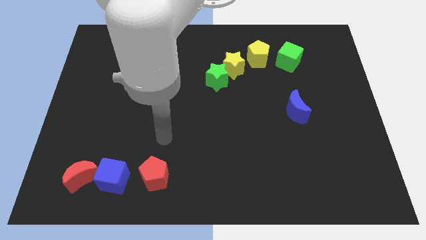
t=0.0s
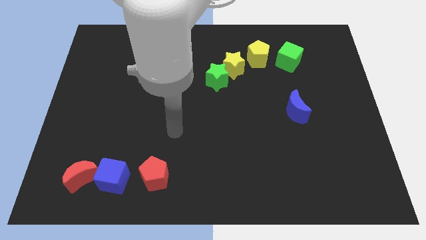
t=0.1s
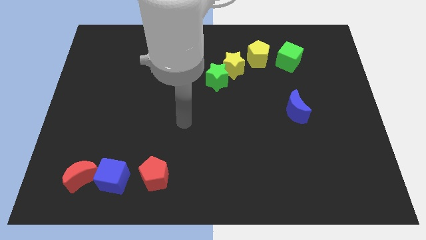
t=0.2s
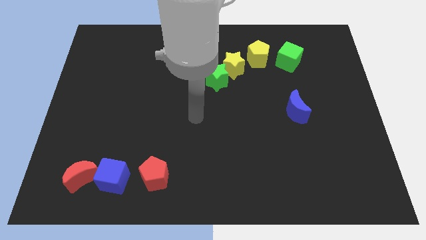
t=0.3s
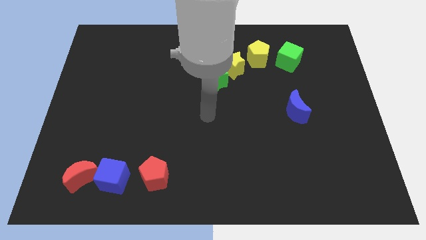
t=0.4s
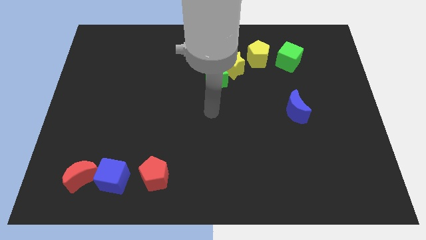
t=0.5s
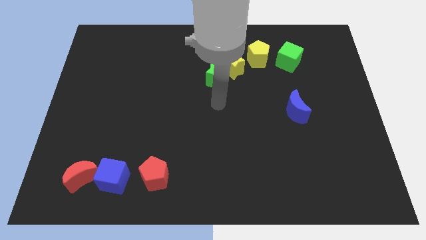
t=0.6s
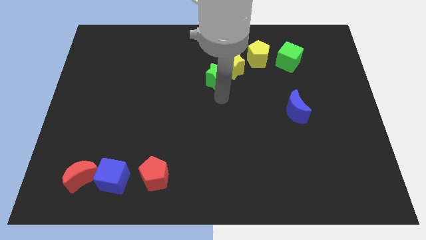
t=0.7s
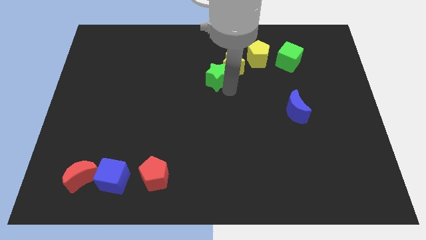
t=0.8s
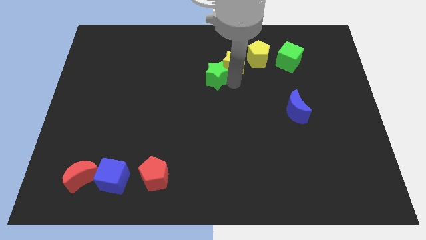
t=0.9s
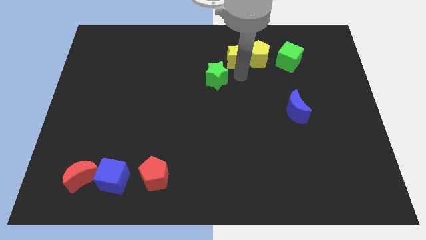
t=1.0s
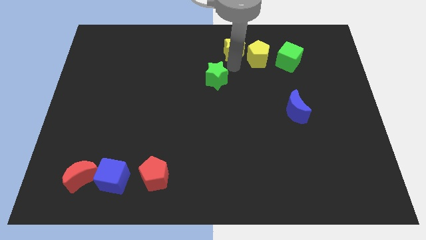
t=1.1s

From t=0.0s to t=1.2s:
move the green star away from the yellow star

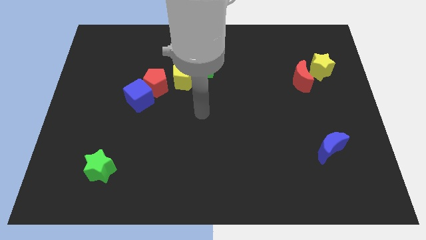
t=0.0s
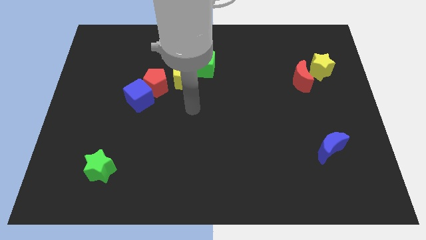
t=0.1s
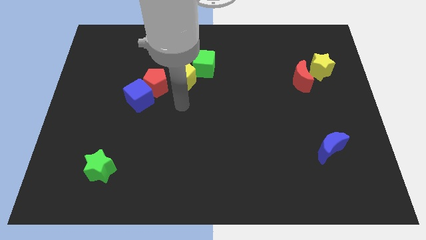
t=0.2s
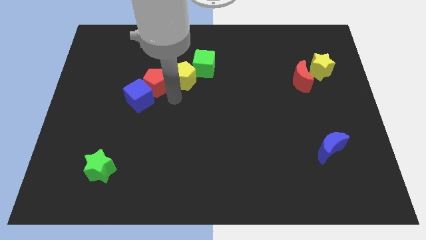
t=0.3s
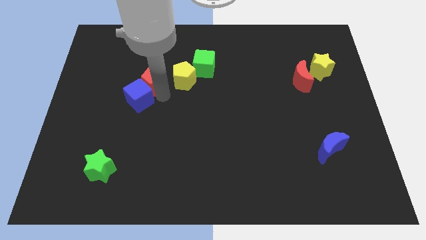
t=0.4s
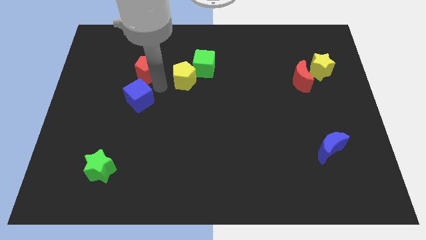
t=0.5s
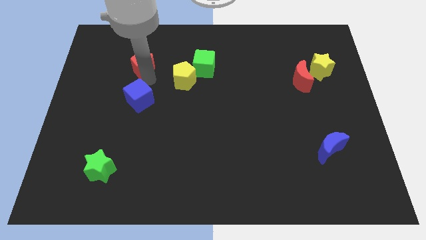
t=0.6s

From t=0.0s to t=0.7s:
separate the blue cube from the red pentagon

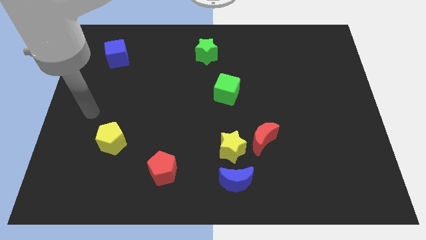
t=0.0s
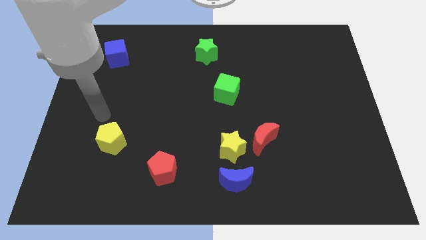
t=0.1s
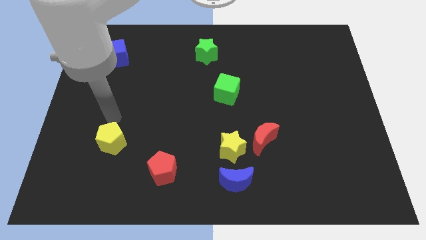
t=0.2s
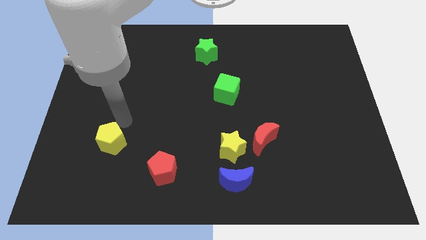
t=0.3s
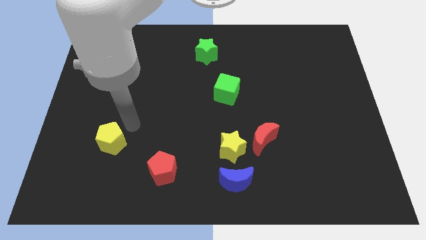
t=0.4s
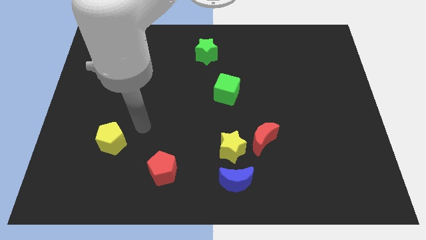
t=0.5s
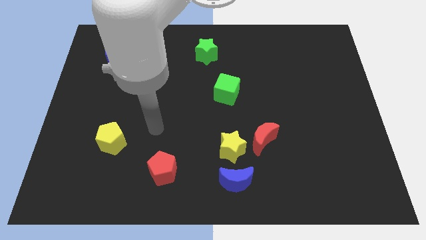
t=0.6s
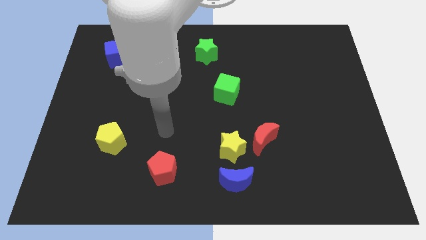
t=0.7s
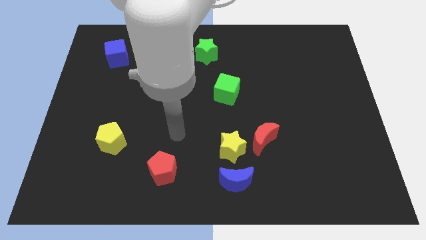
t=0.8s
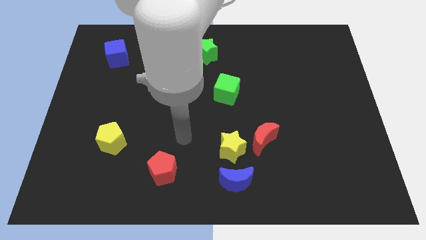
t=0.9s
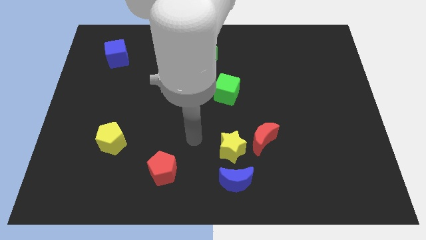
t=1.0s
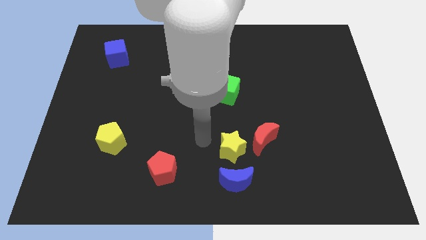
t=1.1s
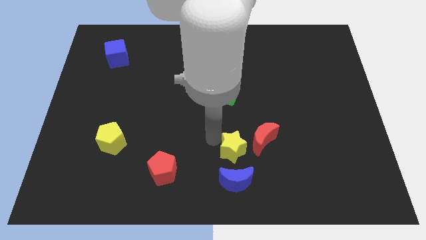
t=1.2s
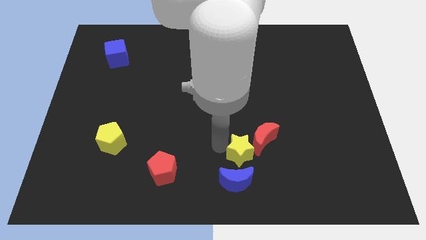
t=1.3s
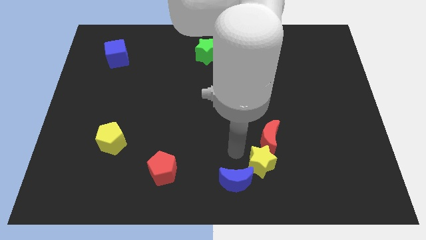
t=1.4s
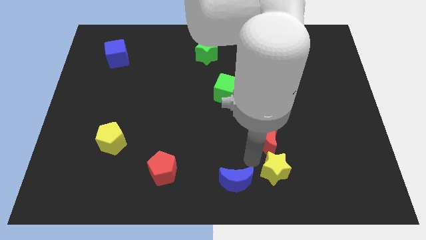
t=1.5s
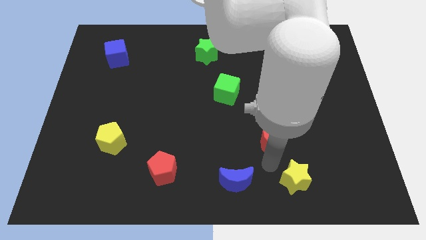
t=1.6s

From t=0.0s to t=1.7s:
separate the red moon from the yellow star

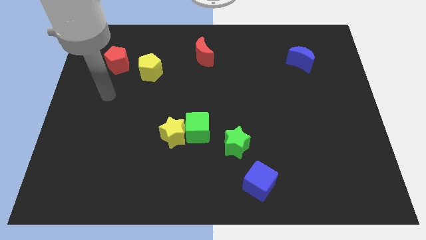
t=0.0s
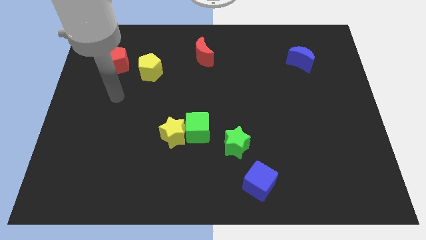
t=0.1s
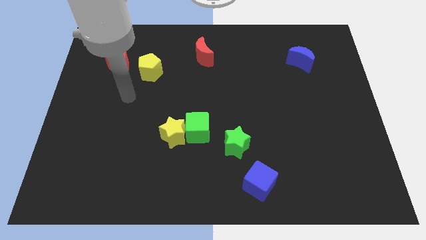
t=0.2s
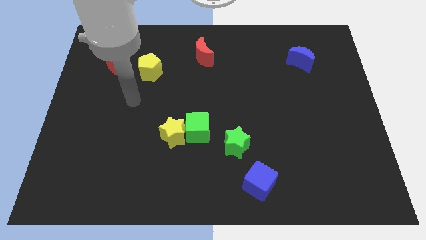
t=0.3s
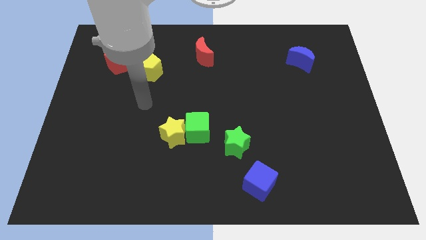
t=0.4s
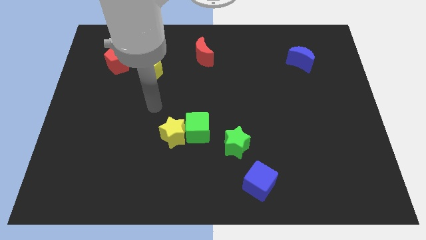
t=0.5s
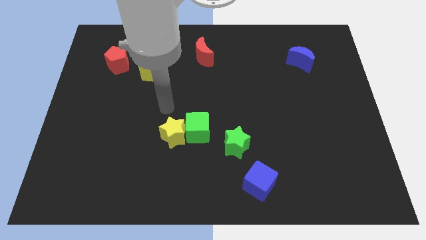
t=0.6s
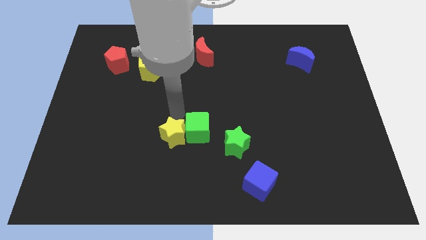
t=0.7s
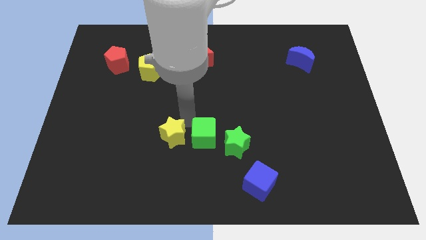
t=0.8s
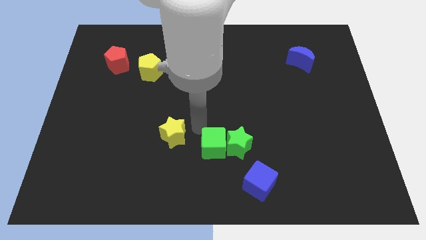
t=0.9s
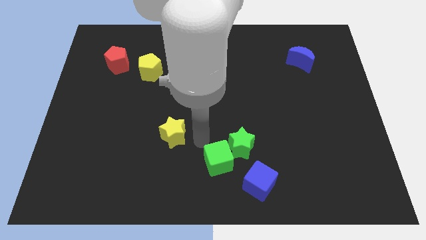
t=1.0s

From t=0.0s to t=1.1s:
separate the yellow star from the green cube

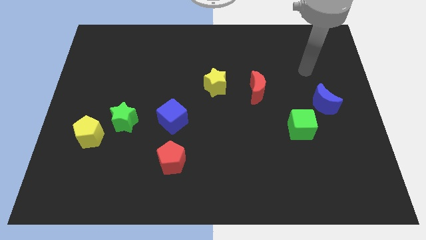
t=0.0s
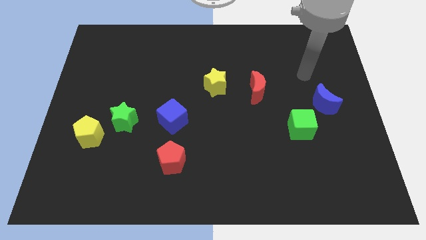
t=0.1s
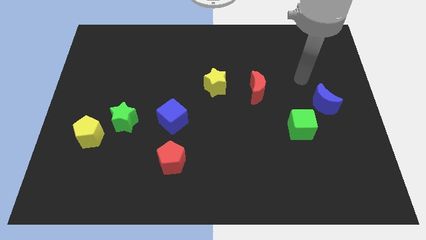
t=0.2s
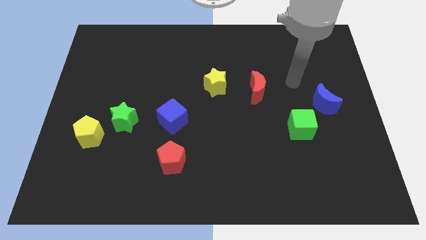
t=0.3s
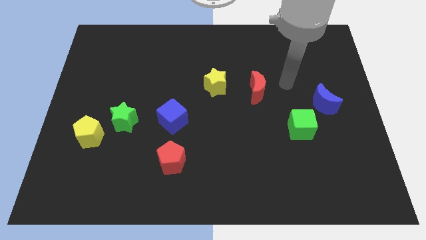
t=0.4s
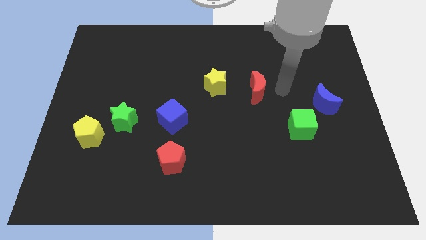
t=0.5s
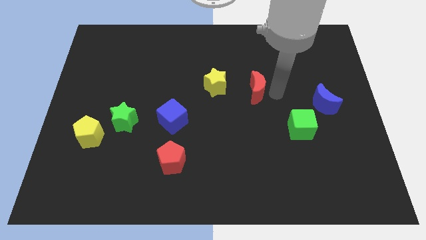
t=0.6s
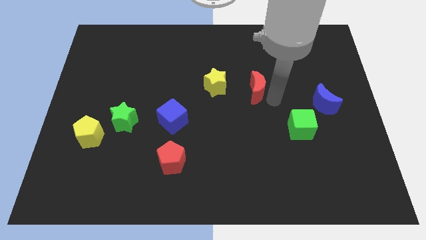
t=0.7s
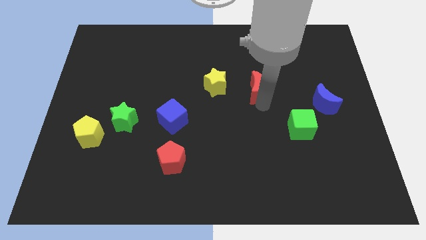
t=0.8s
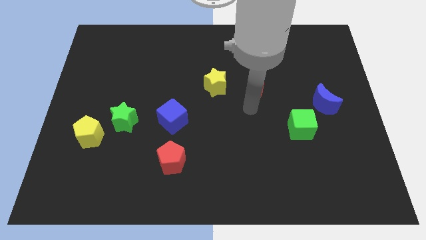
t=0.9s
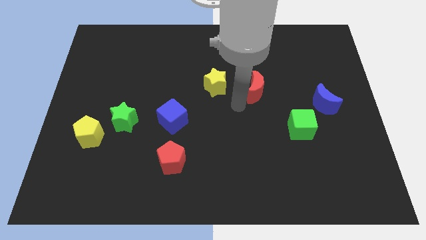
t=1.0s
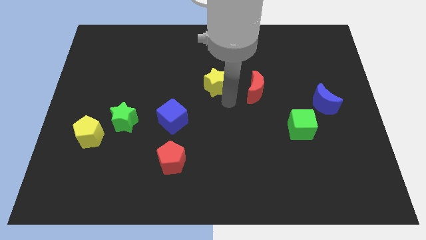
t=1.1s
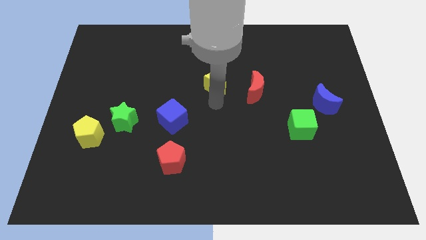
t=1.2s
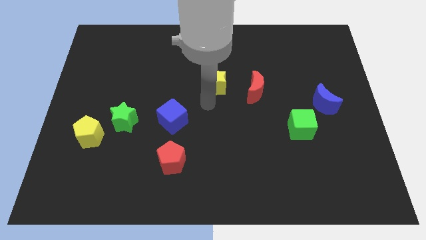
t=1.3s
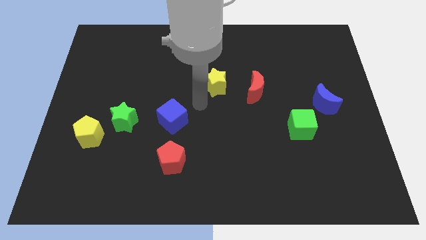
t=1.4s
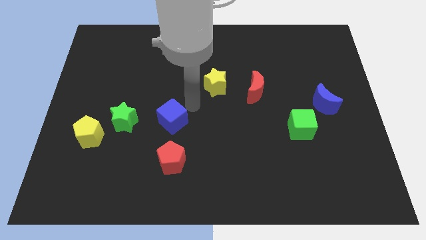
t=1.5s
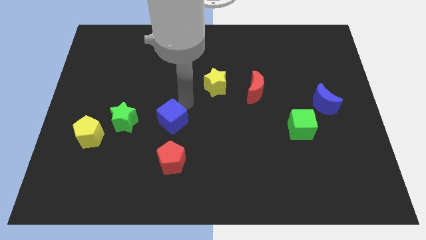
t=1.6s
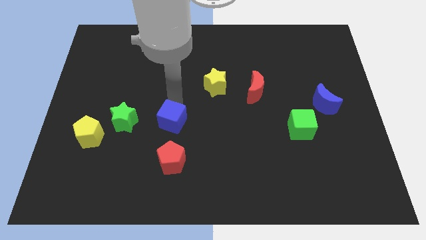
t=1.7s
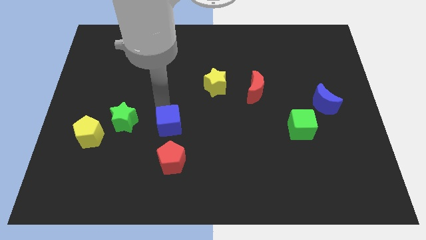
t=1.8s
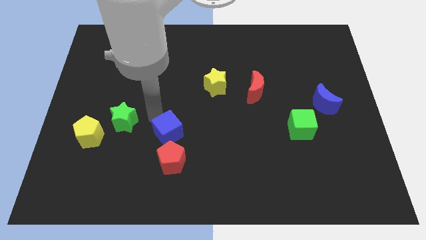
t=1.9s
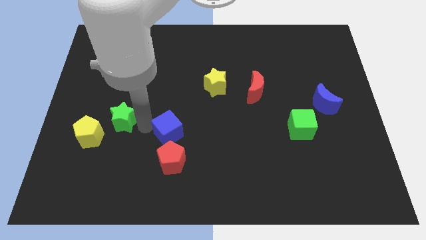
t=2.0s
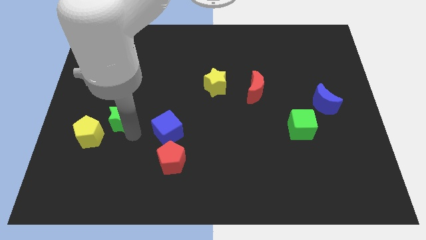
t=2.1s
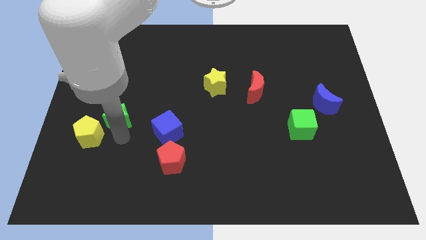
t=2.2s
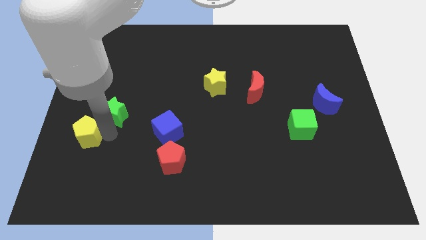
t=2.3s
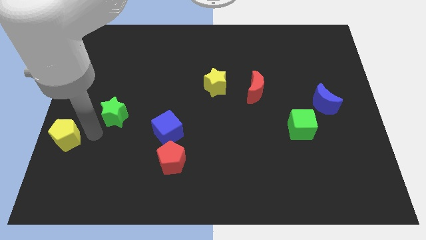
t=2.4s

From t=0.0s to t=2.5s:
pull the green star apart from the yellow pentagon

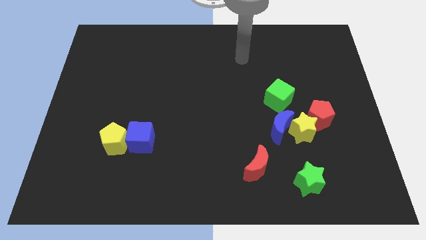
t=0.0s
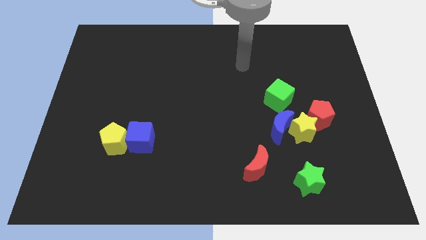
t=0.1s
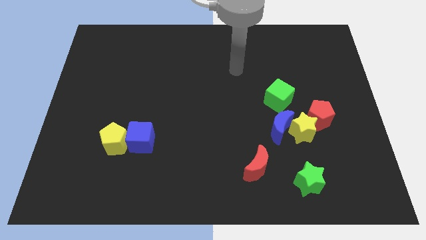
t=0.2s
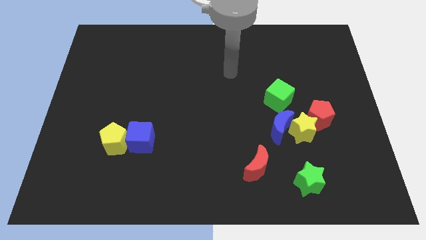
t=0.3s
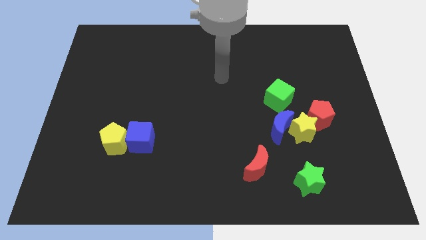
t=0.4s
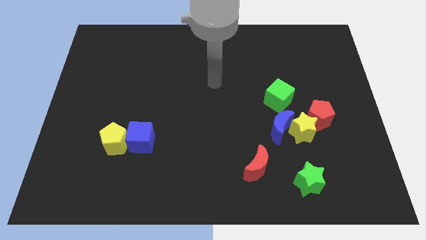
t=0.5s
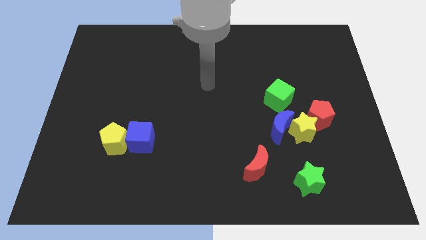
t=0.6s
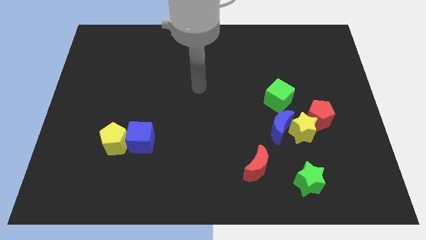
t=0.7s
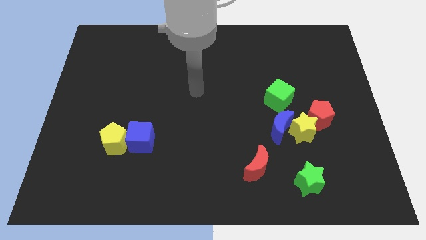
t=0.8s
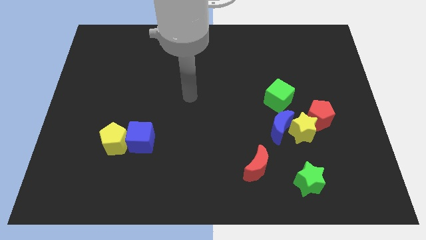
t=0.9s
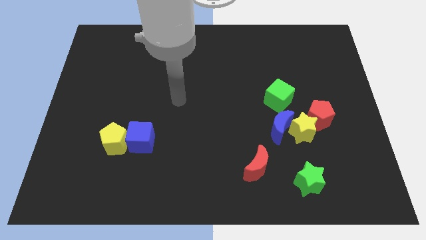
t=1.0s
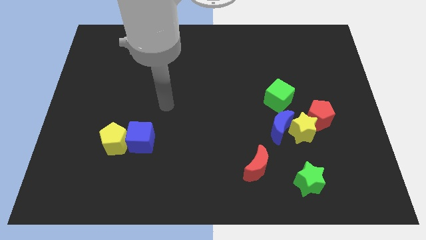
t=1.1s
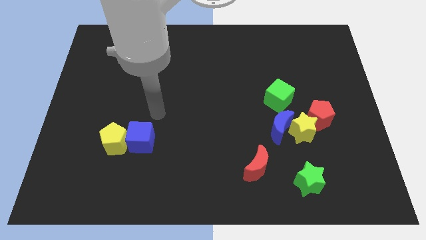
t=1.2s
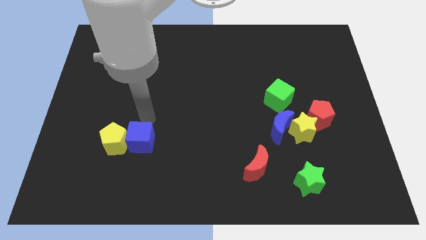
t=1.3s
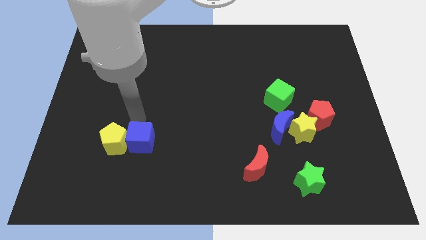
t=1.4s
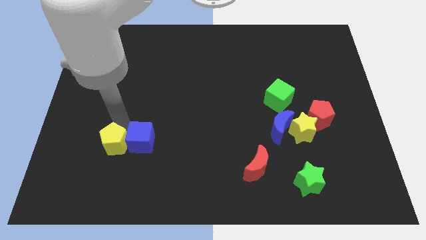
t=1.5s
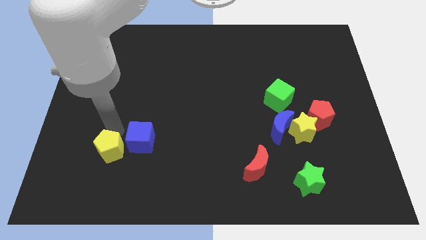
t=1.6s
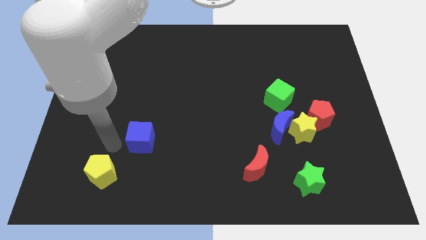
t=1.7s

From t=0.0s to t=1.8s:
separate the blue cube from the yellow pentagon

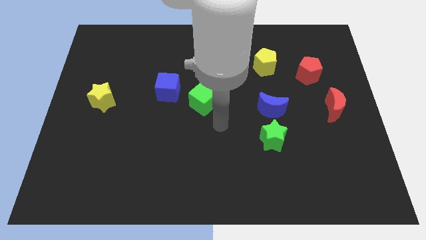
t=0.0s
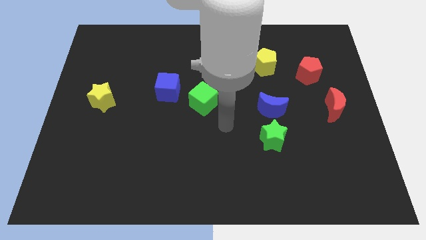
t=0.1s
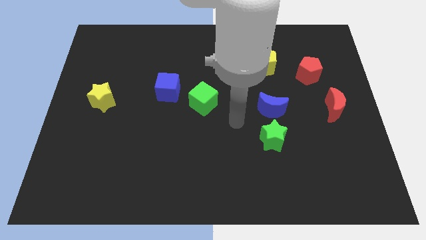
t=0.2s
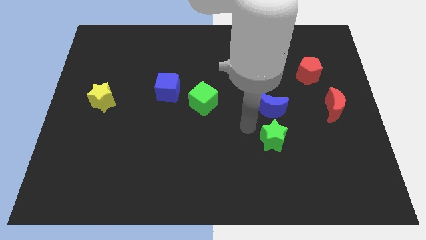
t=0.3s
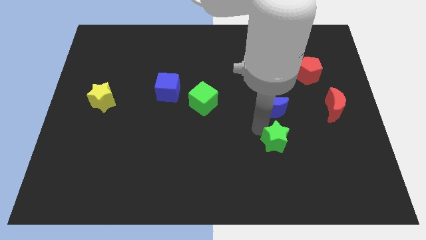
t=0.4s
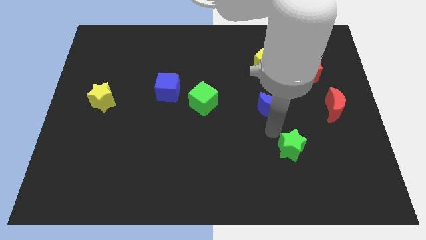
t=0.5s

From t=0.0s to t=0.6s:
move the blue moon away from the green star
